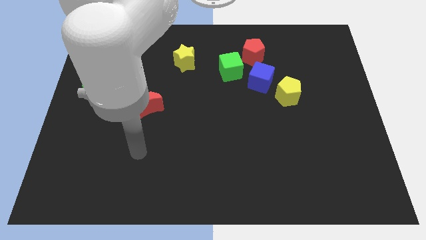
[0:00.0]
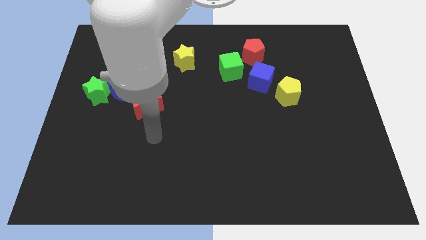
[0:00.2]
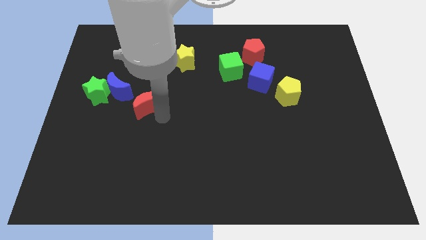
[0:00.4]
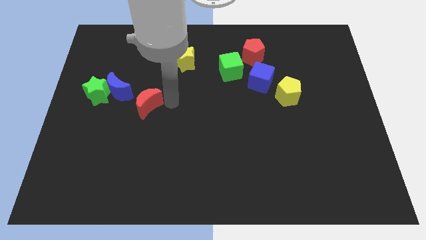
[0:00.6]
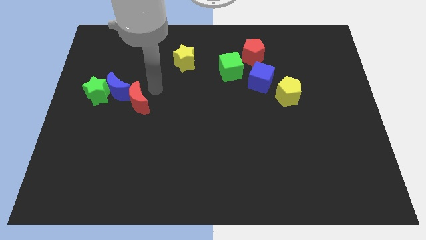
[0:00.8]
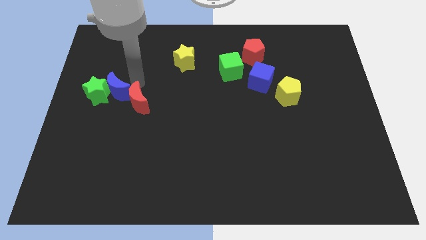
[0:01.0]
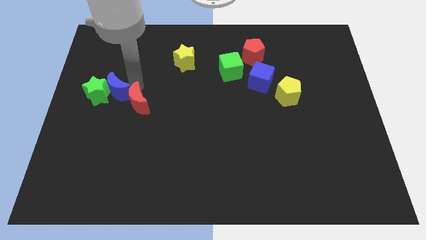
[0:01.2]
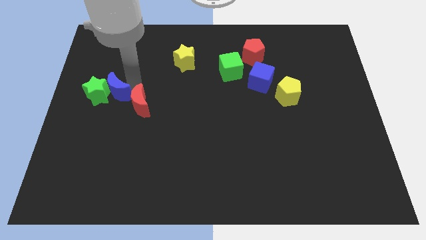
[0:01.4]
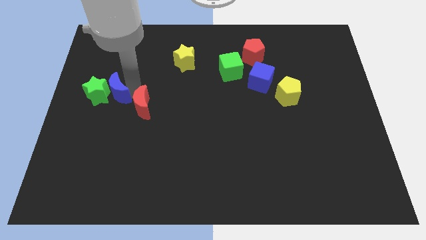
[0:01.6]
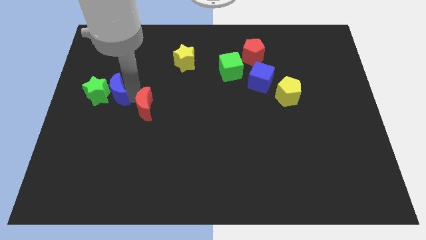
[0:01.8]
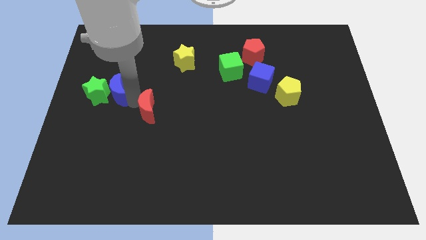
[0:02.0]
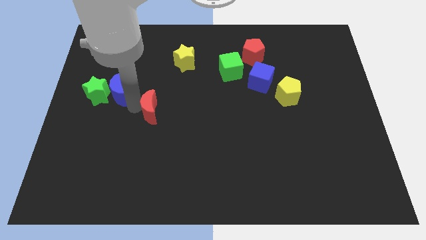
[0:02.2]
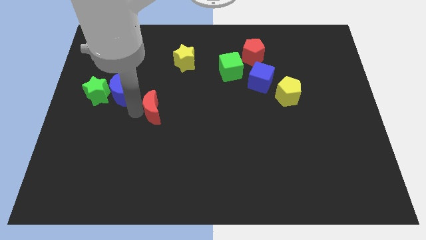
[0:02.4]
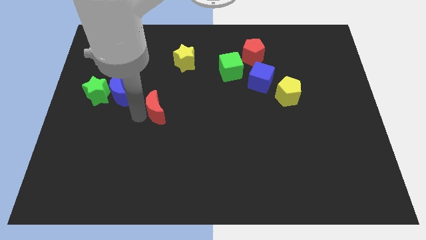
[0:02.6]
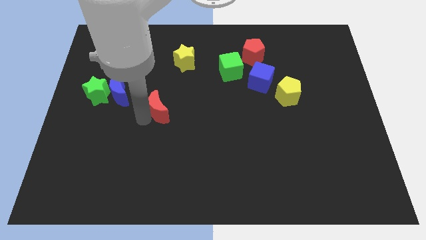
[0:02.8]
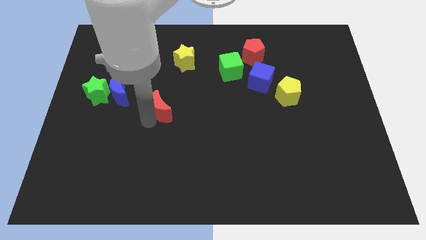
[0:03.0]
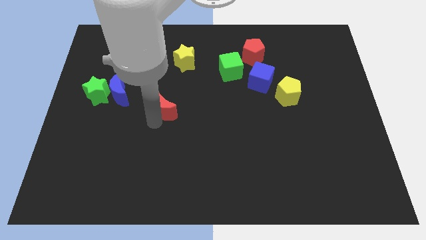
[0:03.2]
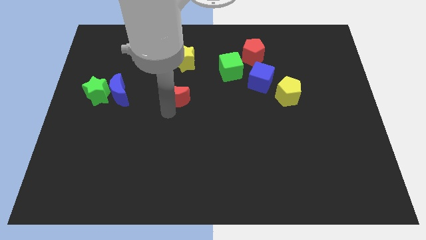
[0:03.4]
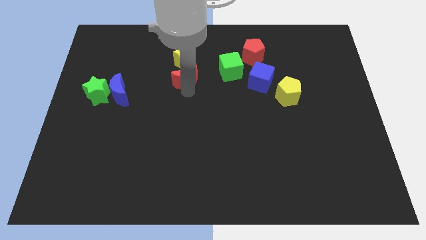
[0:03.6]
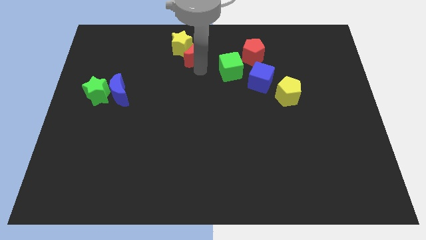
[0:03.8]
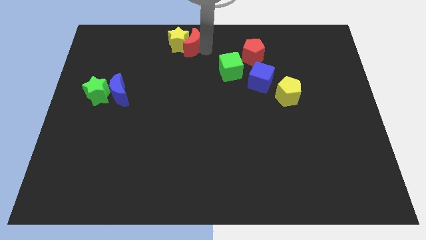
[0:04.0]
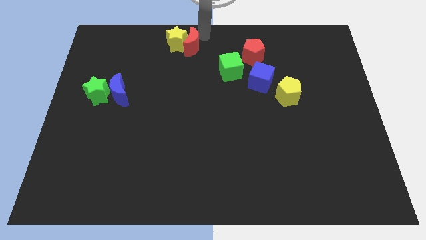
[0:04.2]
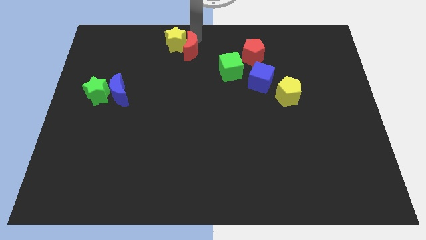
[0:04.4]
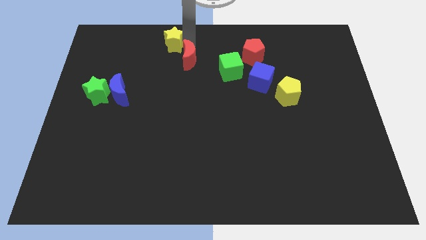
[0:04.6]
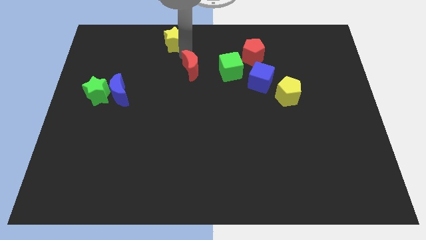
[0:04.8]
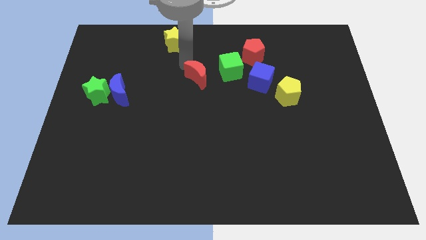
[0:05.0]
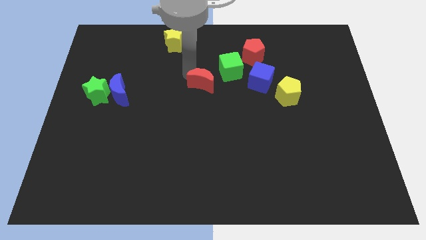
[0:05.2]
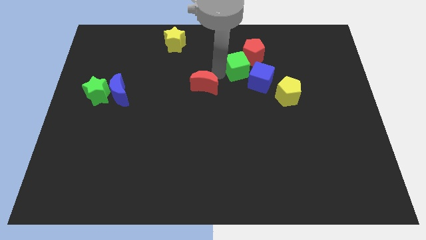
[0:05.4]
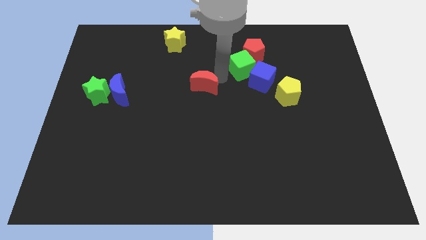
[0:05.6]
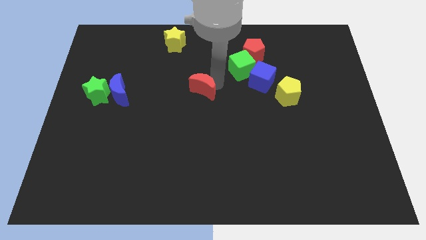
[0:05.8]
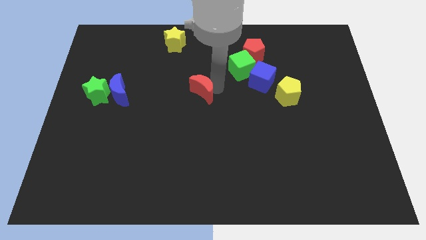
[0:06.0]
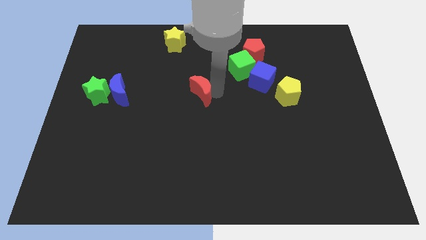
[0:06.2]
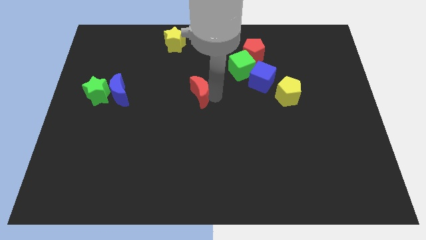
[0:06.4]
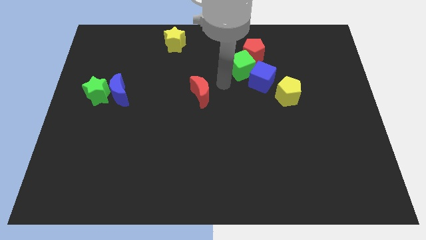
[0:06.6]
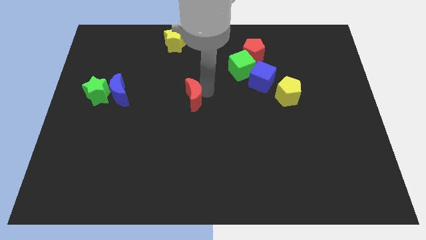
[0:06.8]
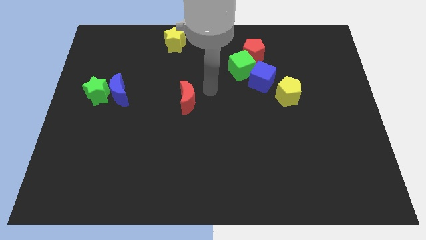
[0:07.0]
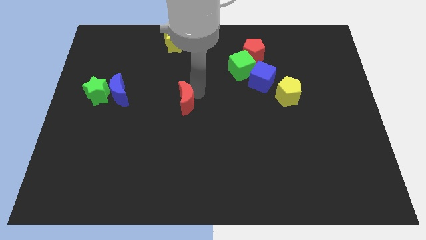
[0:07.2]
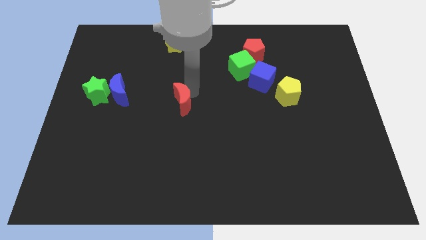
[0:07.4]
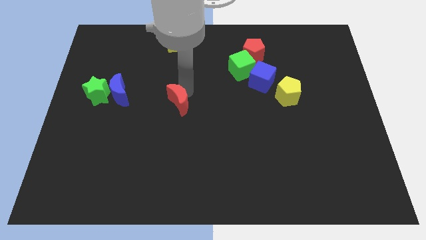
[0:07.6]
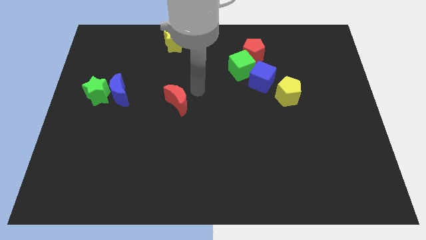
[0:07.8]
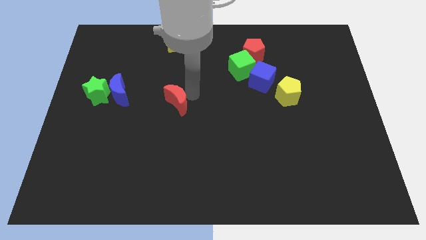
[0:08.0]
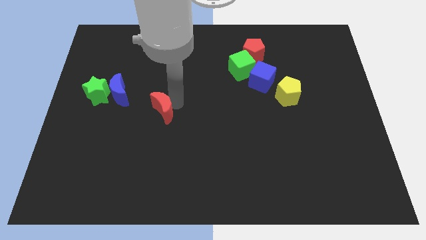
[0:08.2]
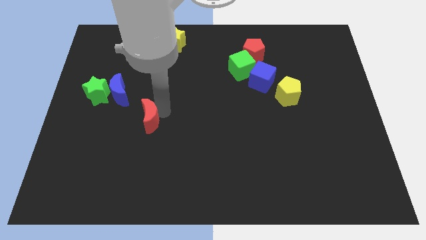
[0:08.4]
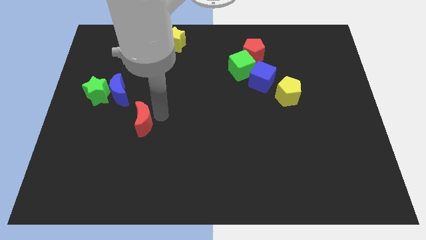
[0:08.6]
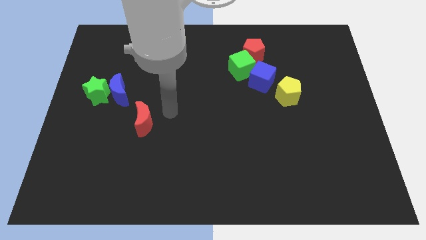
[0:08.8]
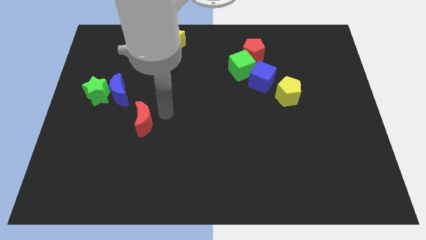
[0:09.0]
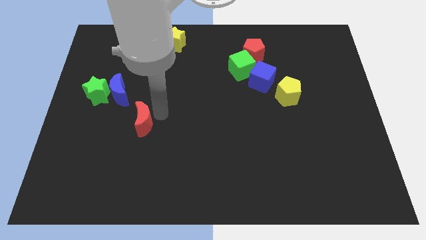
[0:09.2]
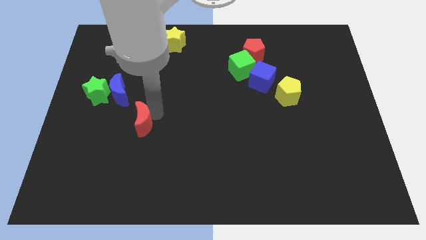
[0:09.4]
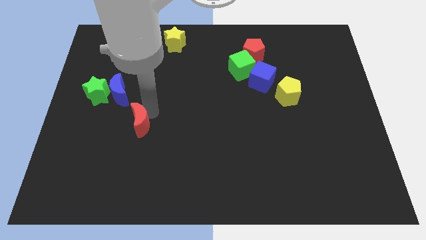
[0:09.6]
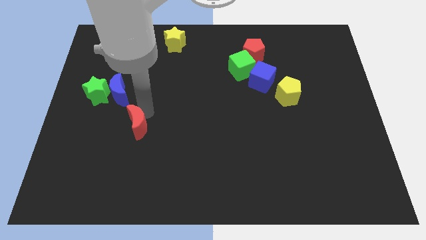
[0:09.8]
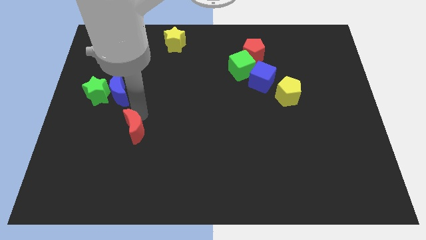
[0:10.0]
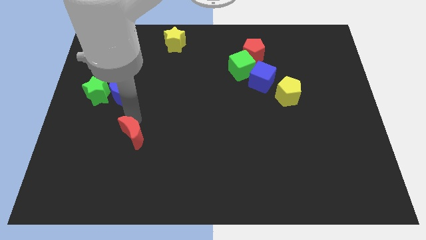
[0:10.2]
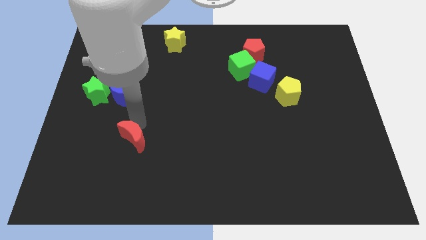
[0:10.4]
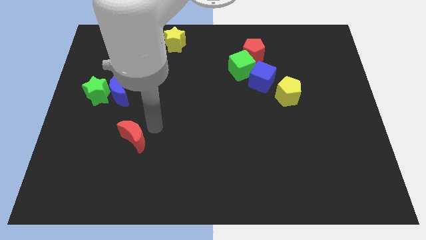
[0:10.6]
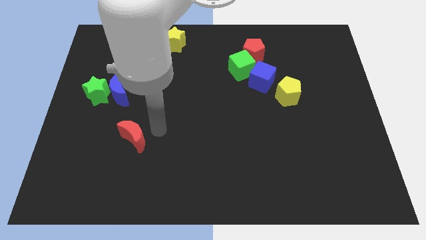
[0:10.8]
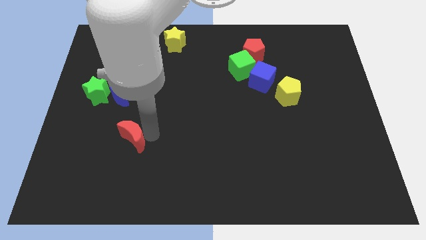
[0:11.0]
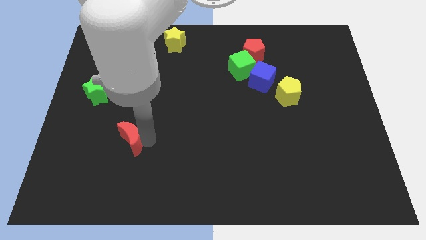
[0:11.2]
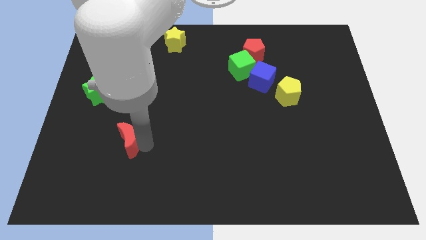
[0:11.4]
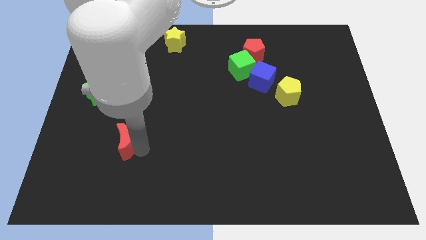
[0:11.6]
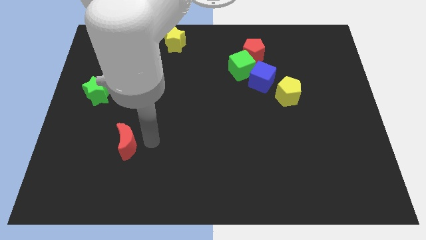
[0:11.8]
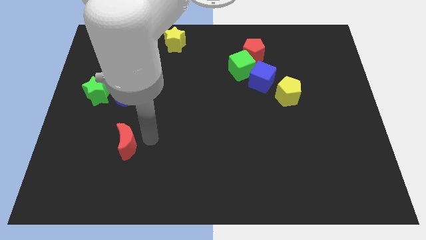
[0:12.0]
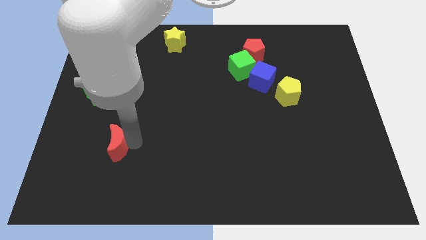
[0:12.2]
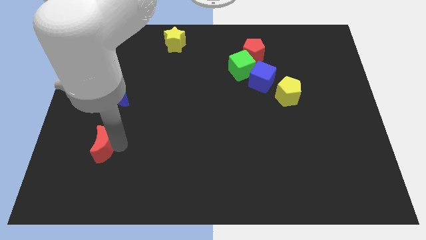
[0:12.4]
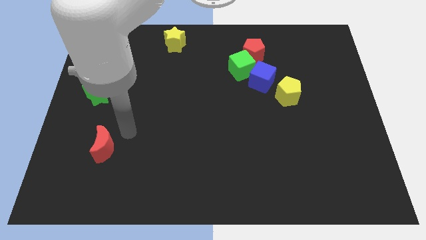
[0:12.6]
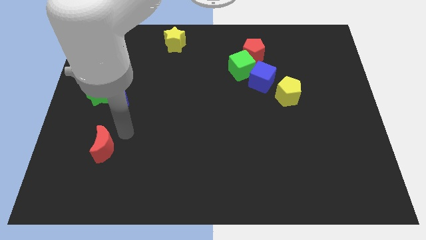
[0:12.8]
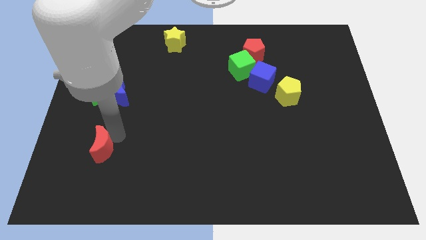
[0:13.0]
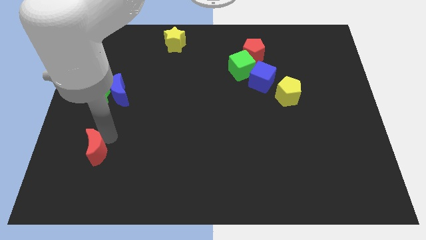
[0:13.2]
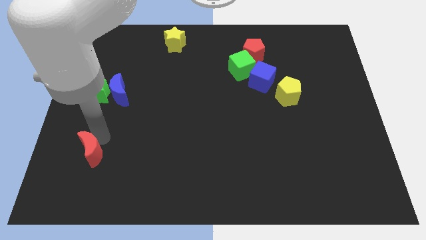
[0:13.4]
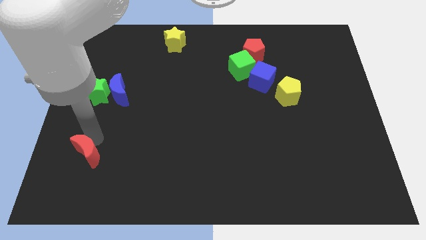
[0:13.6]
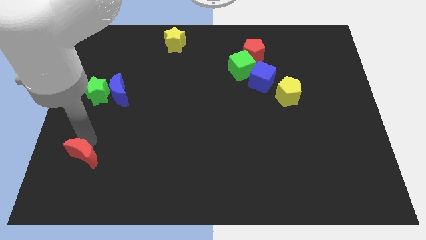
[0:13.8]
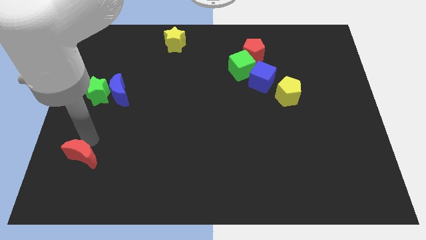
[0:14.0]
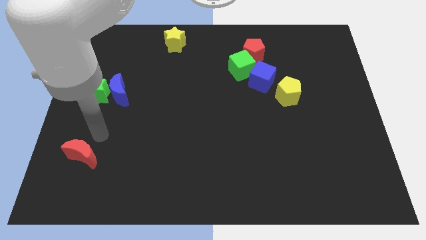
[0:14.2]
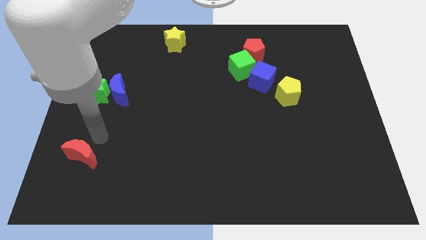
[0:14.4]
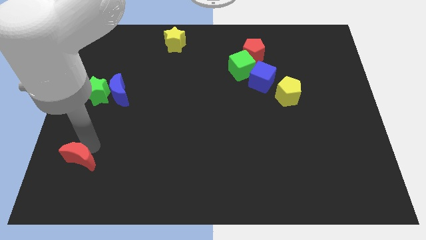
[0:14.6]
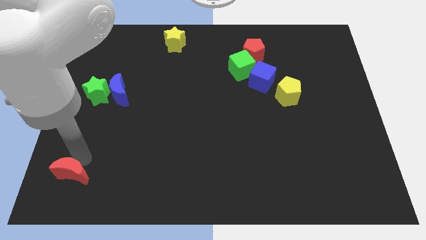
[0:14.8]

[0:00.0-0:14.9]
push the red moon to the bottom left
